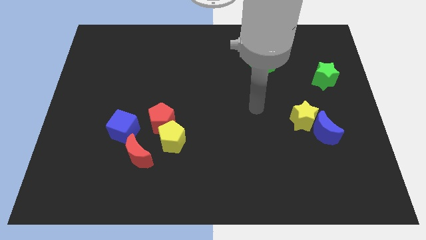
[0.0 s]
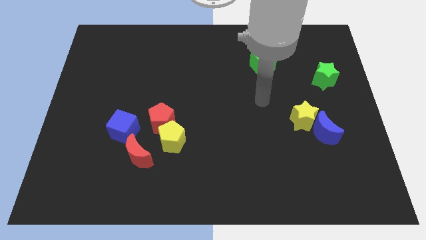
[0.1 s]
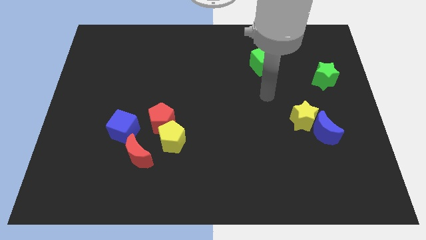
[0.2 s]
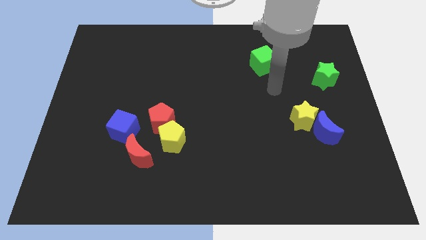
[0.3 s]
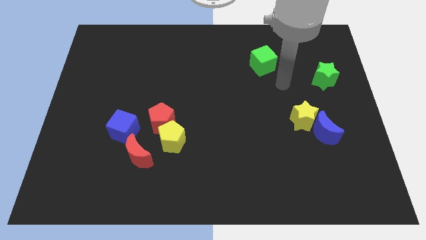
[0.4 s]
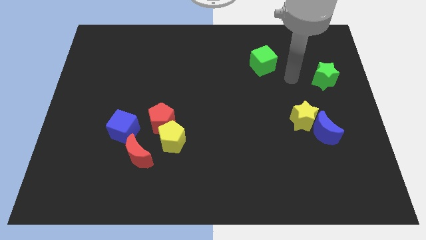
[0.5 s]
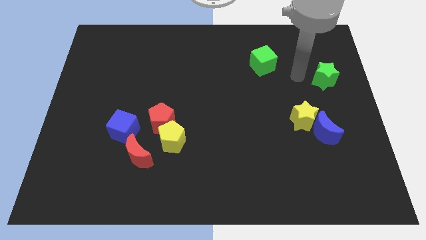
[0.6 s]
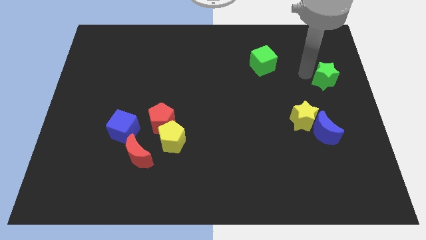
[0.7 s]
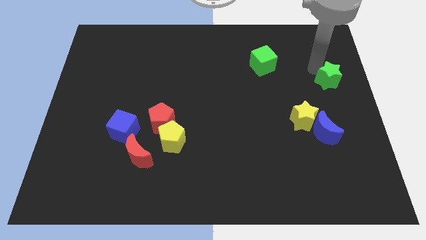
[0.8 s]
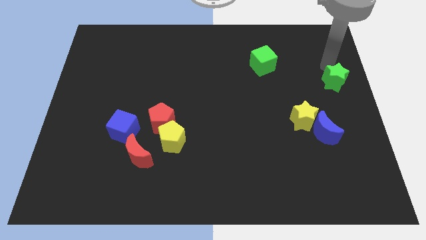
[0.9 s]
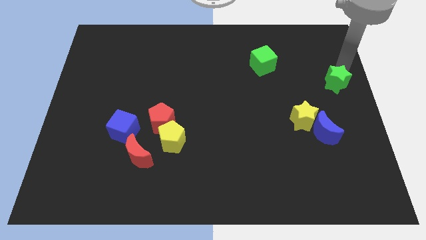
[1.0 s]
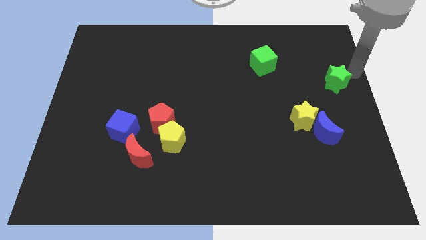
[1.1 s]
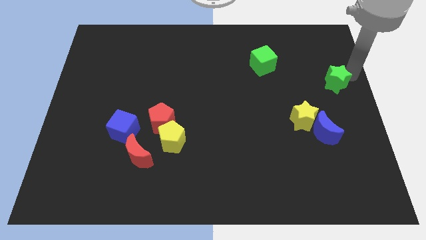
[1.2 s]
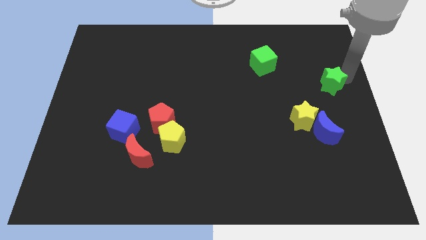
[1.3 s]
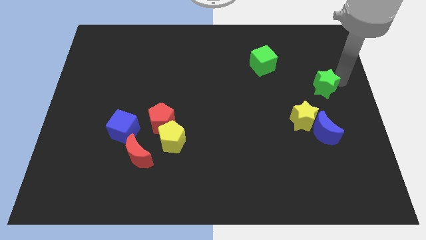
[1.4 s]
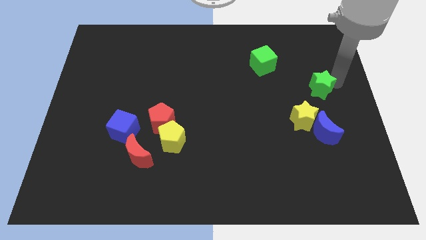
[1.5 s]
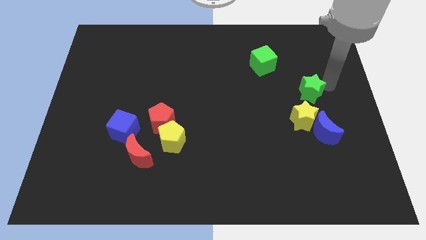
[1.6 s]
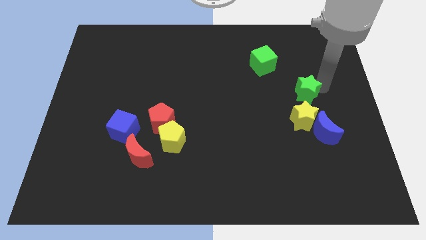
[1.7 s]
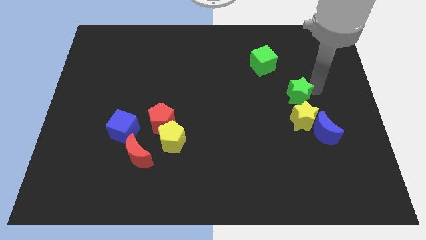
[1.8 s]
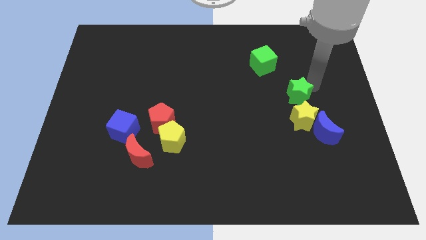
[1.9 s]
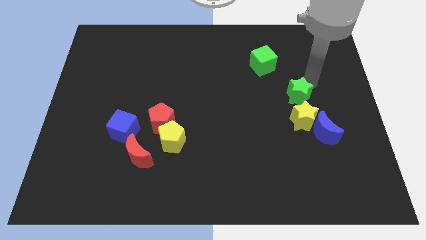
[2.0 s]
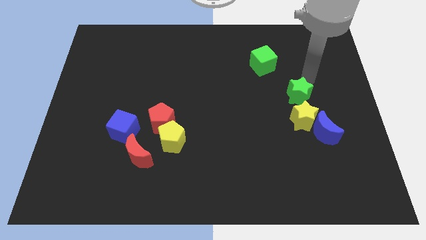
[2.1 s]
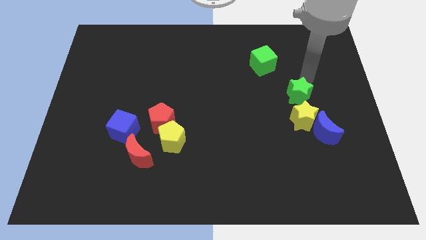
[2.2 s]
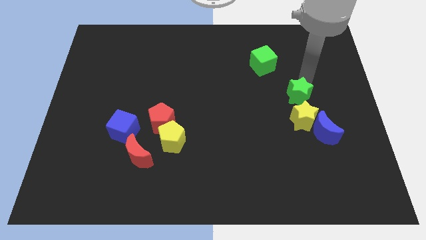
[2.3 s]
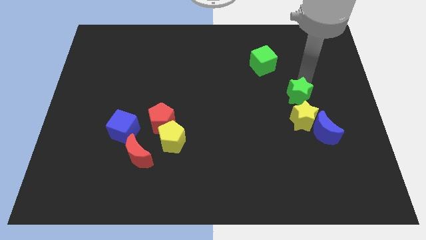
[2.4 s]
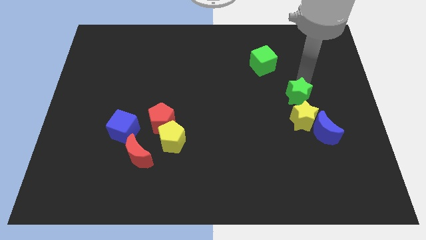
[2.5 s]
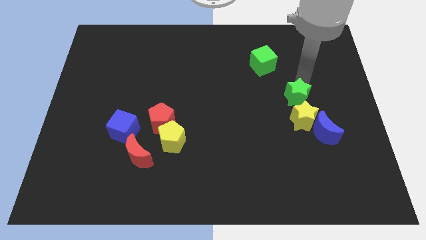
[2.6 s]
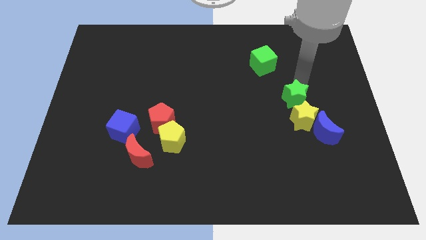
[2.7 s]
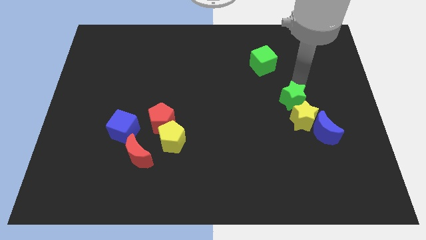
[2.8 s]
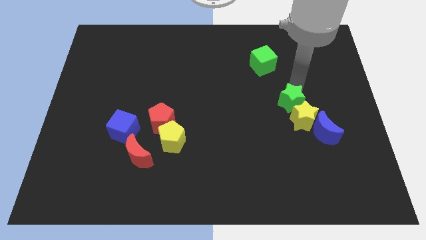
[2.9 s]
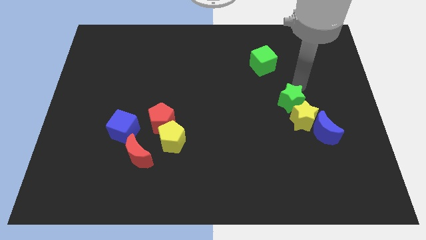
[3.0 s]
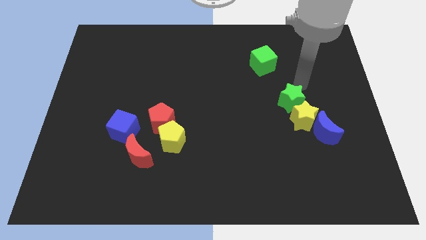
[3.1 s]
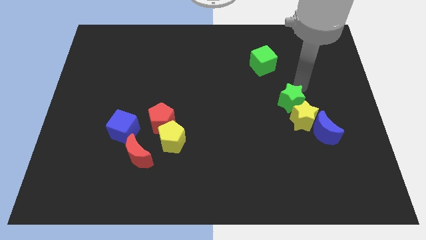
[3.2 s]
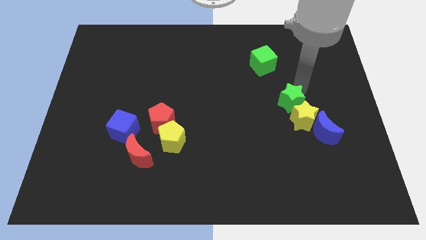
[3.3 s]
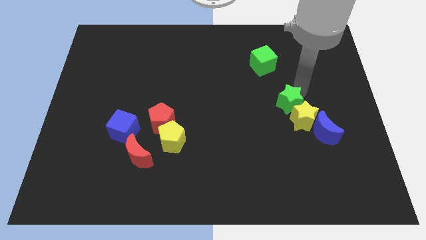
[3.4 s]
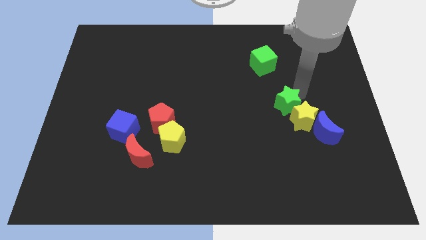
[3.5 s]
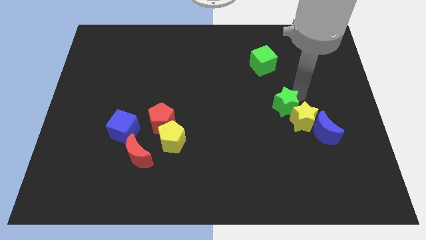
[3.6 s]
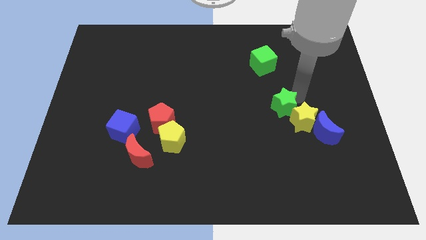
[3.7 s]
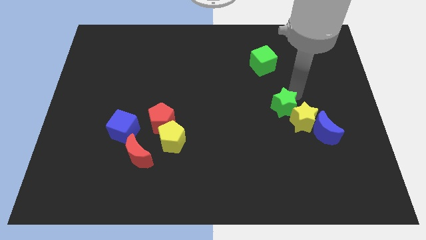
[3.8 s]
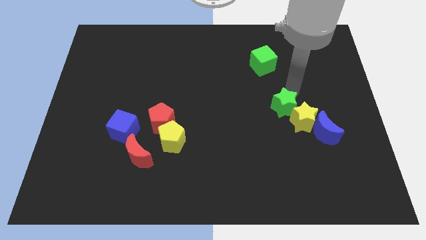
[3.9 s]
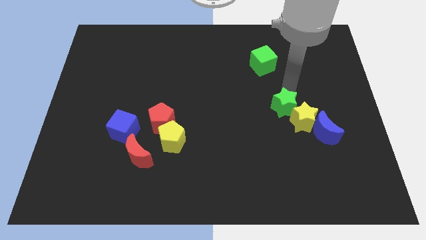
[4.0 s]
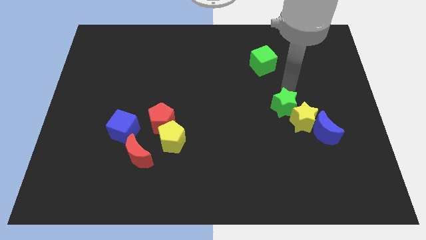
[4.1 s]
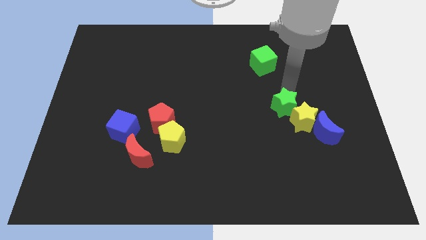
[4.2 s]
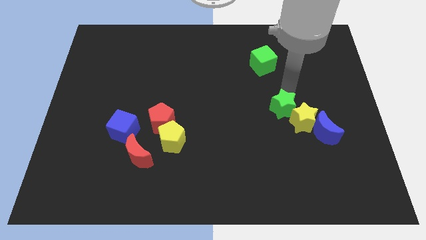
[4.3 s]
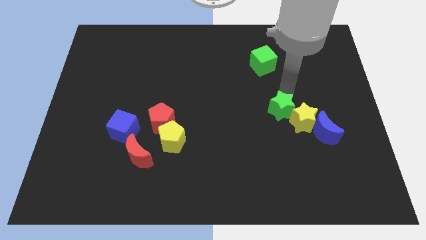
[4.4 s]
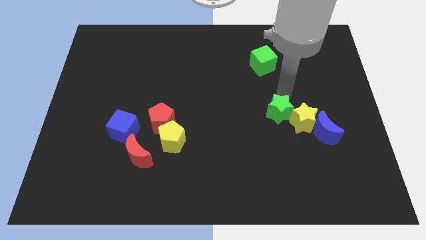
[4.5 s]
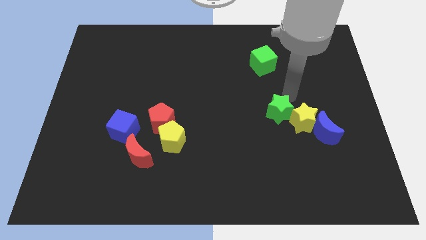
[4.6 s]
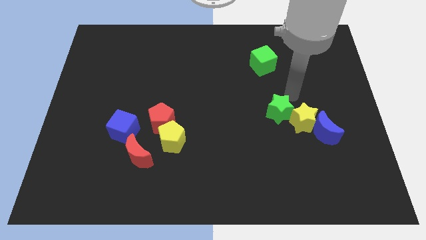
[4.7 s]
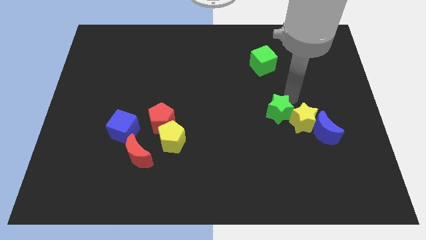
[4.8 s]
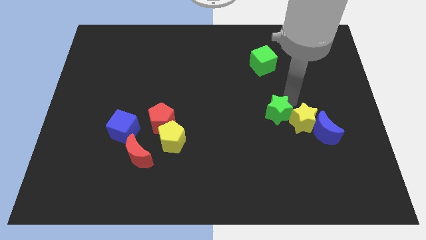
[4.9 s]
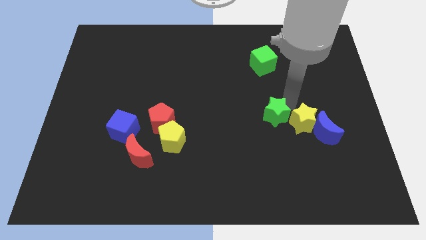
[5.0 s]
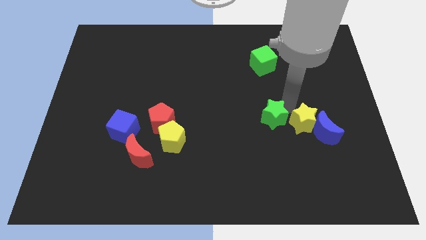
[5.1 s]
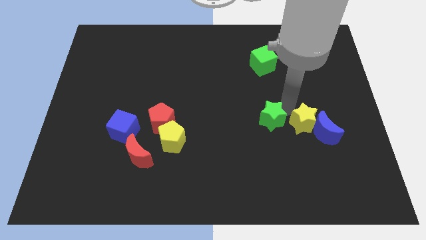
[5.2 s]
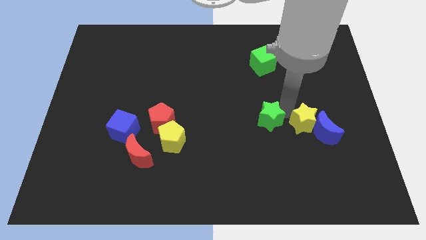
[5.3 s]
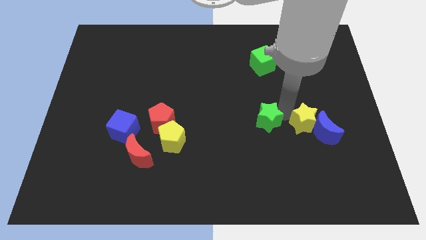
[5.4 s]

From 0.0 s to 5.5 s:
push the green star downwards and to the left diagonally

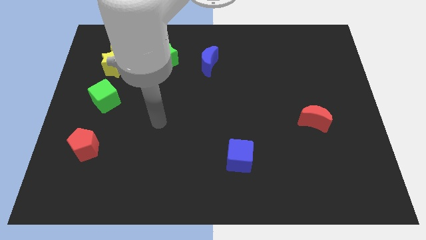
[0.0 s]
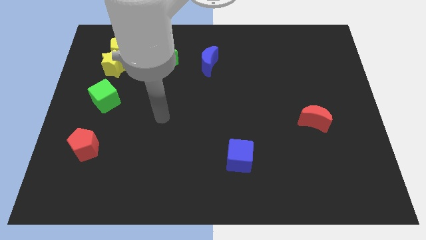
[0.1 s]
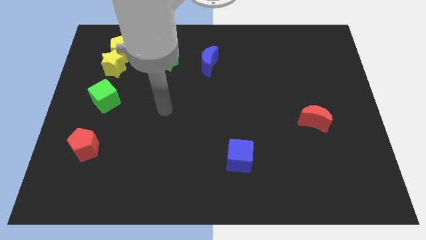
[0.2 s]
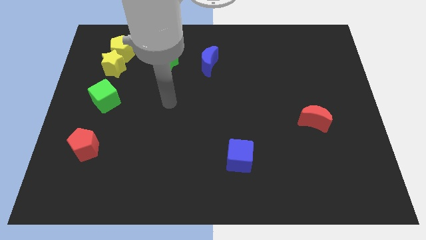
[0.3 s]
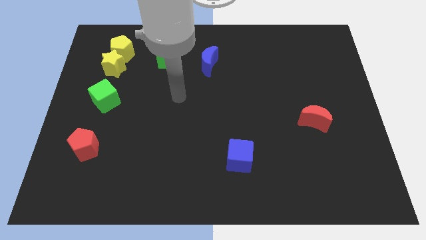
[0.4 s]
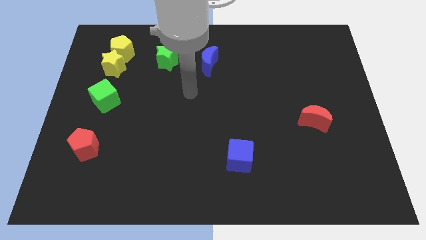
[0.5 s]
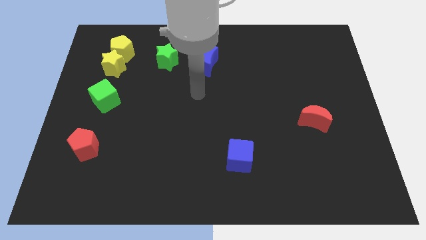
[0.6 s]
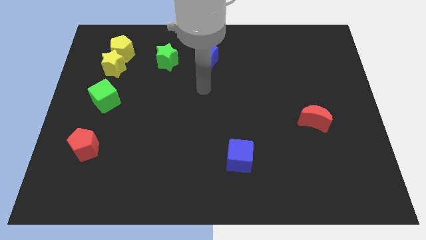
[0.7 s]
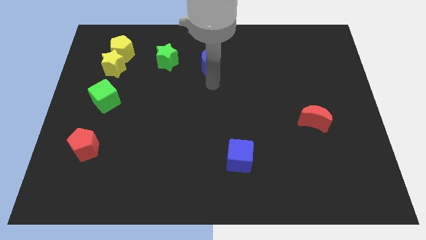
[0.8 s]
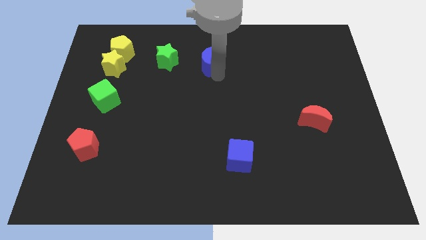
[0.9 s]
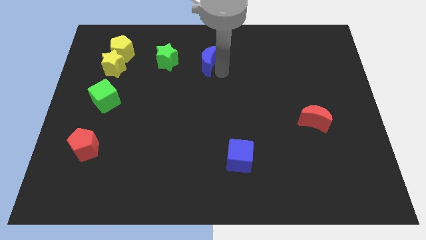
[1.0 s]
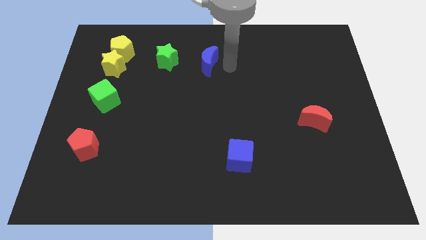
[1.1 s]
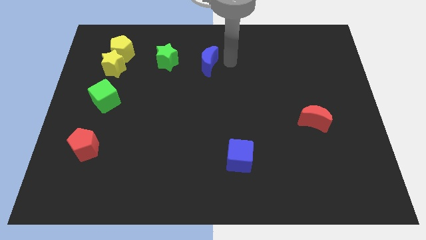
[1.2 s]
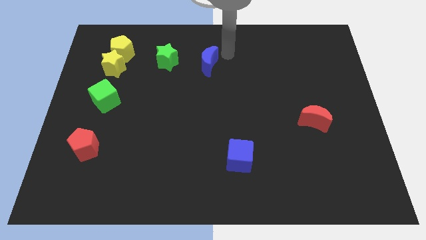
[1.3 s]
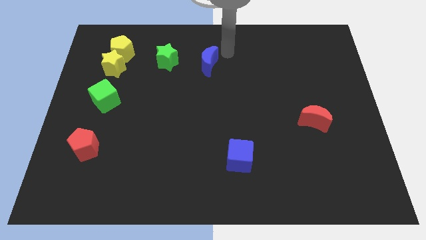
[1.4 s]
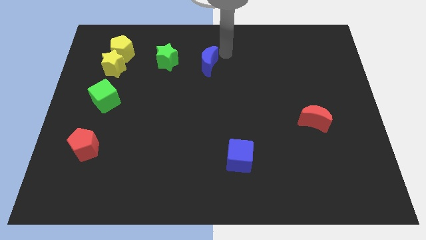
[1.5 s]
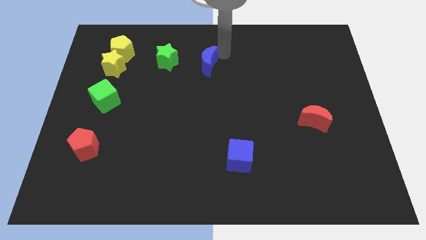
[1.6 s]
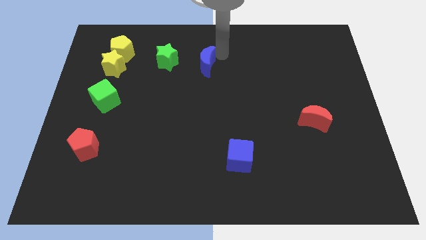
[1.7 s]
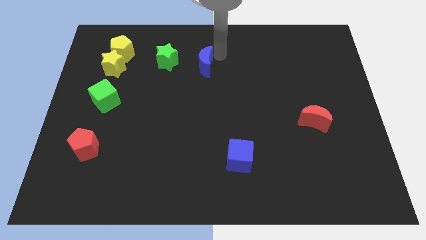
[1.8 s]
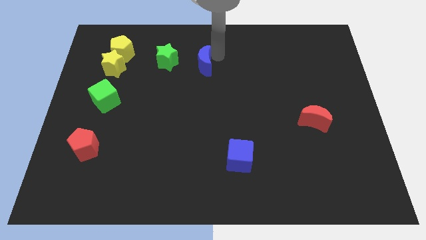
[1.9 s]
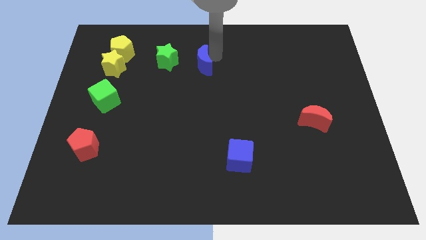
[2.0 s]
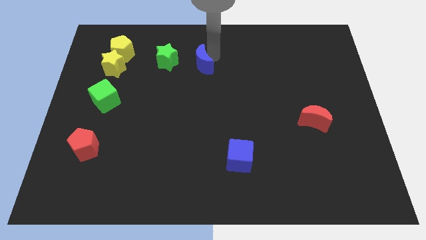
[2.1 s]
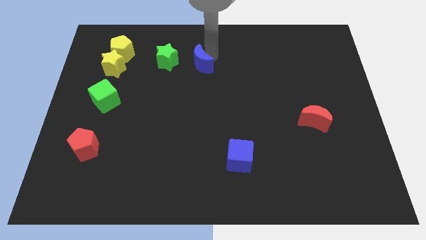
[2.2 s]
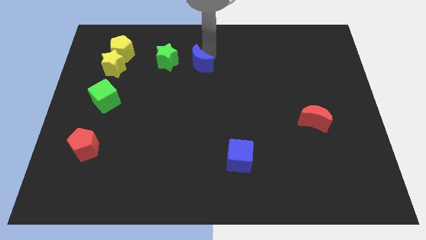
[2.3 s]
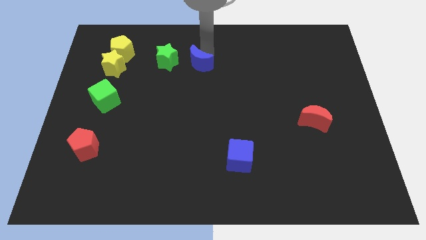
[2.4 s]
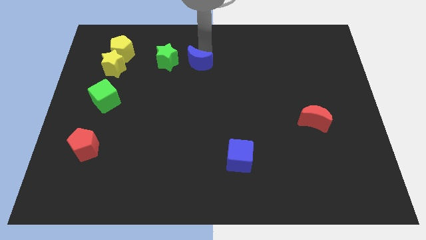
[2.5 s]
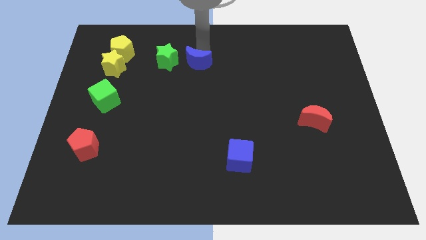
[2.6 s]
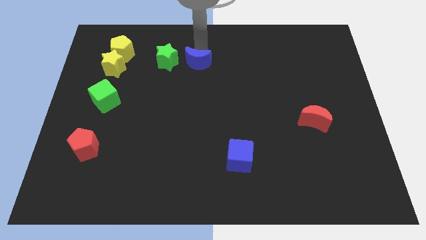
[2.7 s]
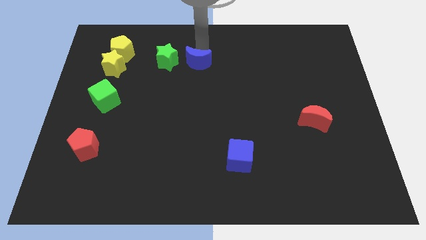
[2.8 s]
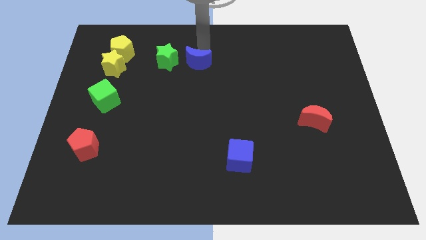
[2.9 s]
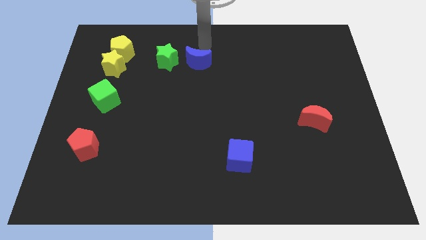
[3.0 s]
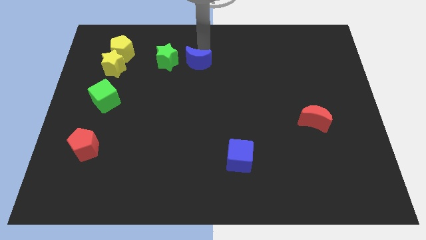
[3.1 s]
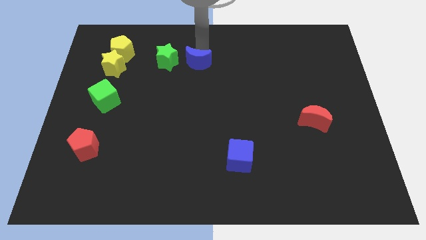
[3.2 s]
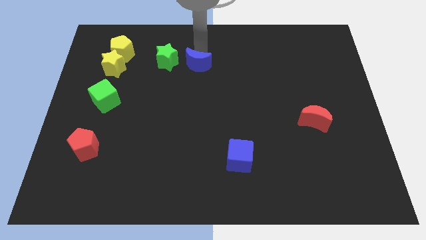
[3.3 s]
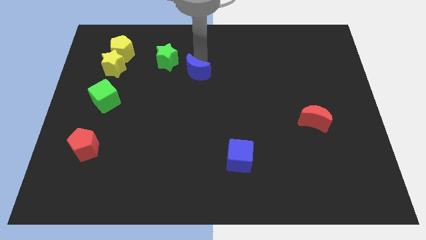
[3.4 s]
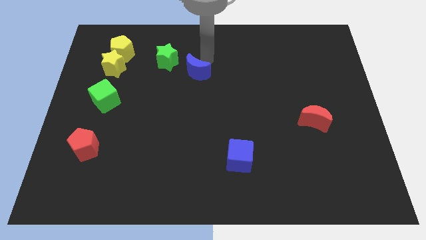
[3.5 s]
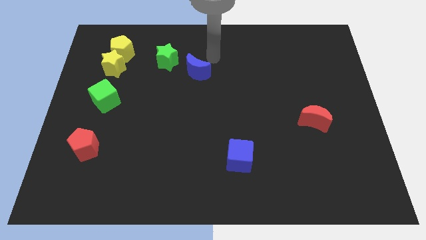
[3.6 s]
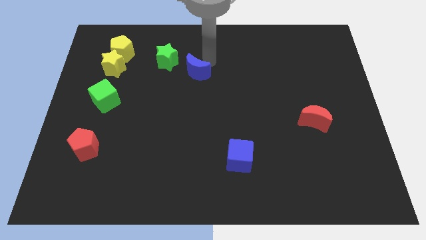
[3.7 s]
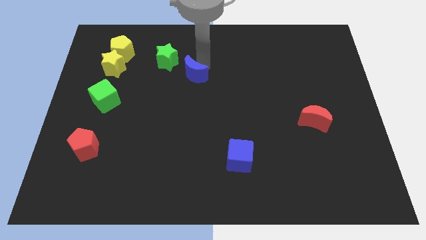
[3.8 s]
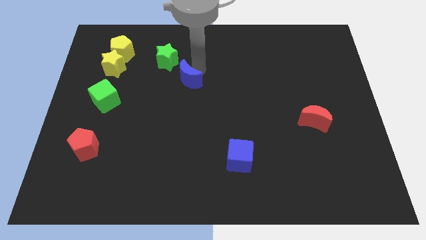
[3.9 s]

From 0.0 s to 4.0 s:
slide the blue moon downwards and then left a little bit
